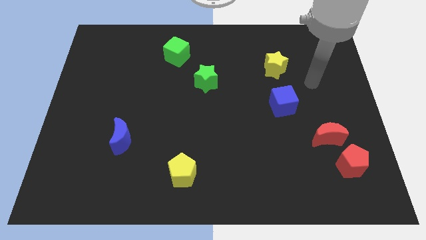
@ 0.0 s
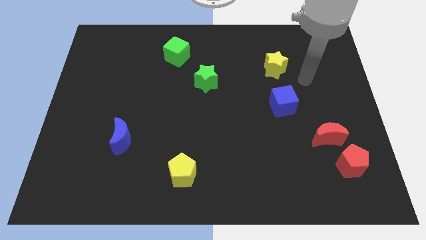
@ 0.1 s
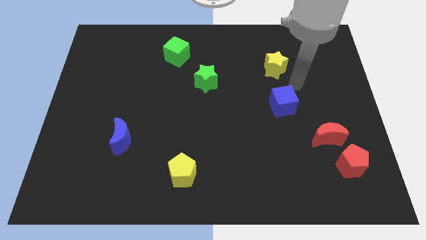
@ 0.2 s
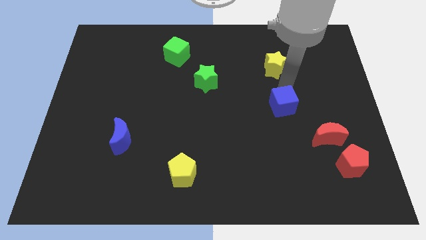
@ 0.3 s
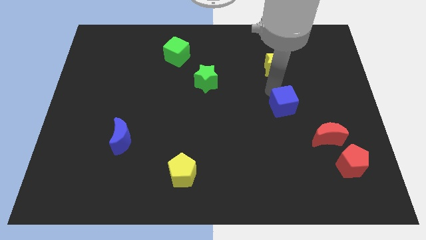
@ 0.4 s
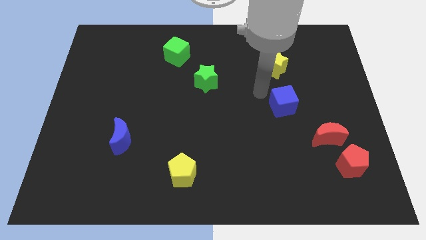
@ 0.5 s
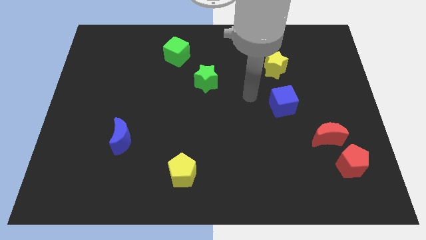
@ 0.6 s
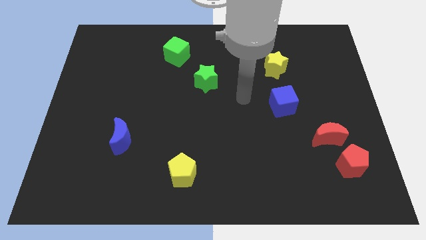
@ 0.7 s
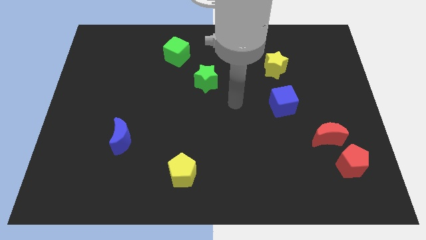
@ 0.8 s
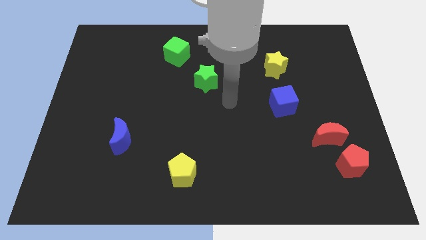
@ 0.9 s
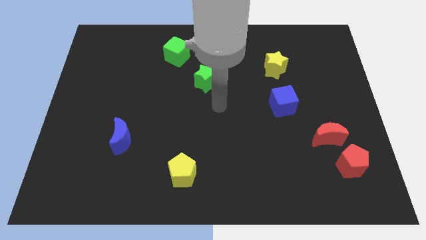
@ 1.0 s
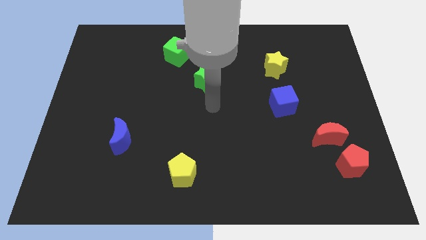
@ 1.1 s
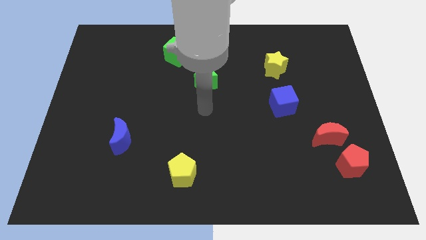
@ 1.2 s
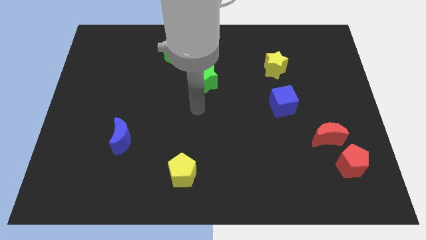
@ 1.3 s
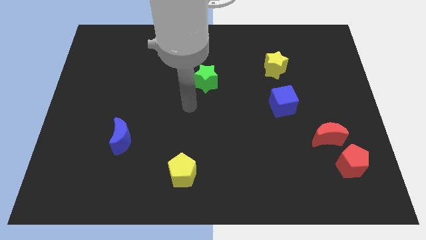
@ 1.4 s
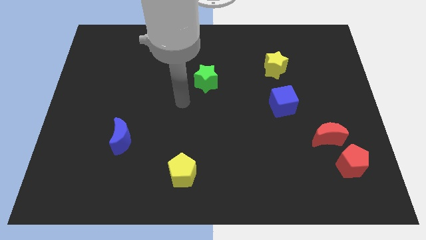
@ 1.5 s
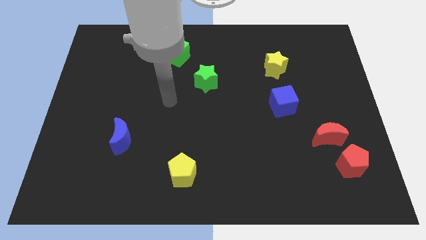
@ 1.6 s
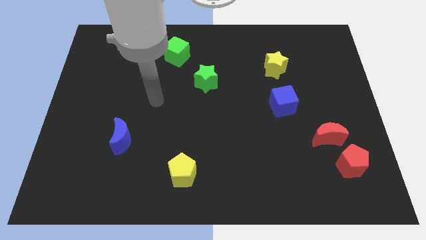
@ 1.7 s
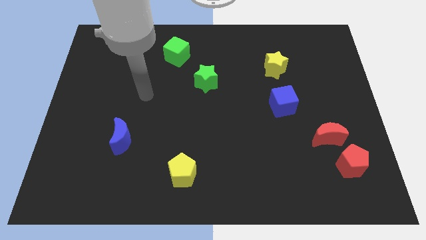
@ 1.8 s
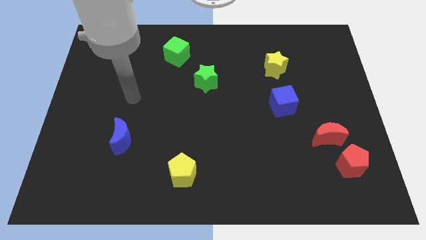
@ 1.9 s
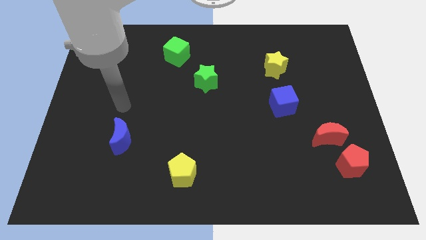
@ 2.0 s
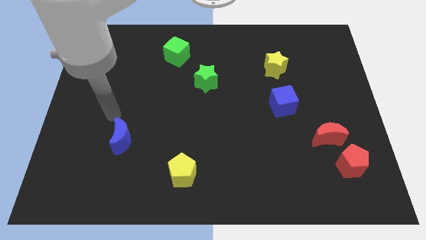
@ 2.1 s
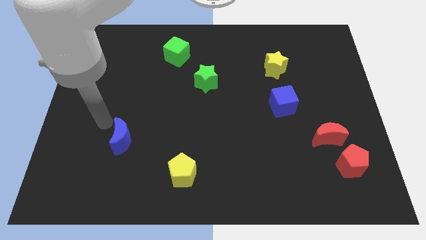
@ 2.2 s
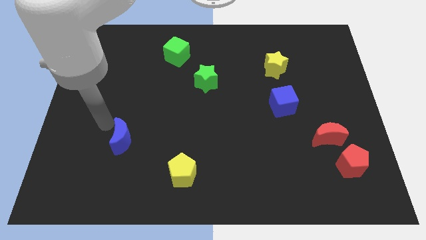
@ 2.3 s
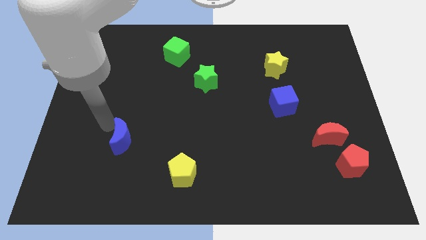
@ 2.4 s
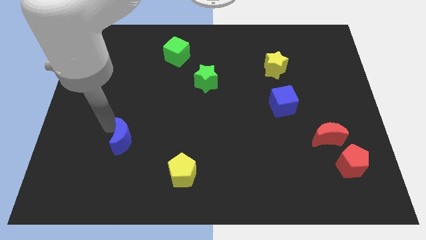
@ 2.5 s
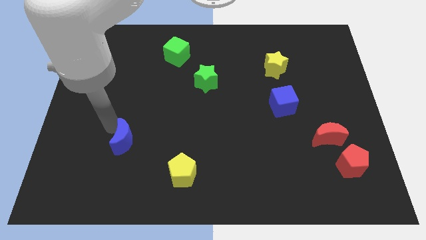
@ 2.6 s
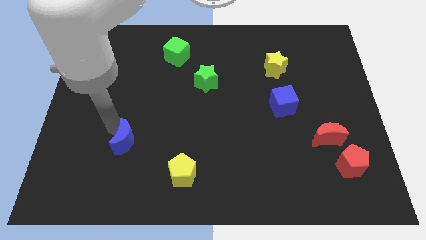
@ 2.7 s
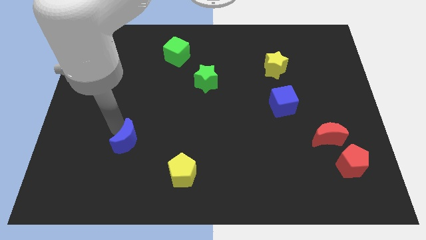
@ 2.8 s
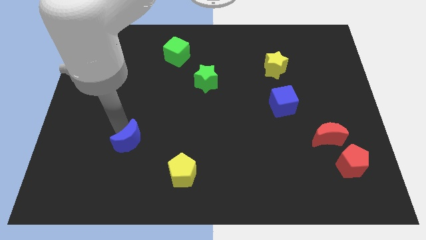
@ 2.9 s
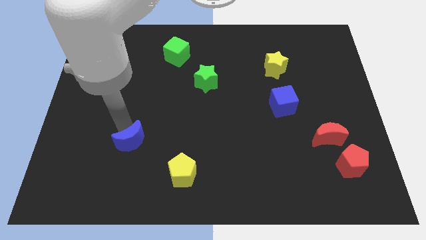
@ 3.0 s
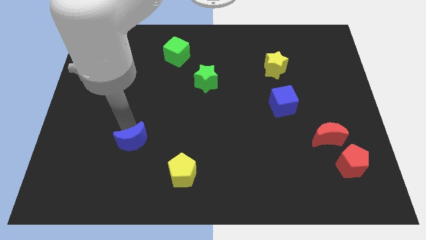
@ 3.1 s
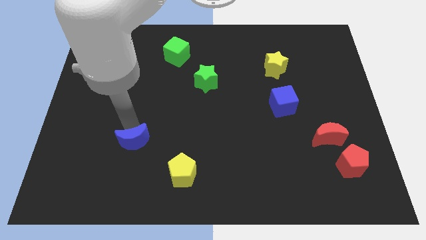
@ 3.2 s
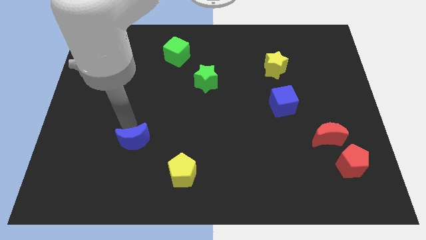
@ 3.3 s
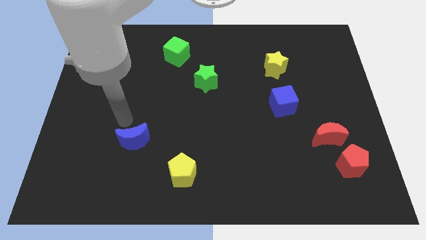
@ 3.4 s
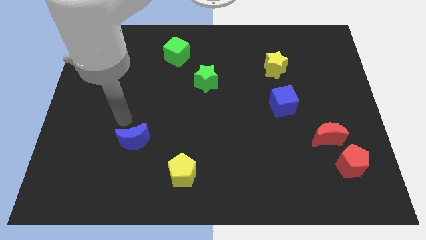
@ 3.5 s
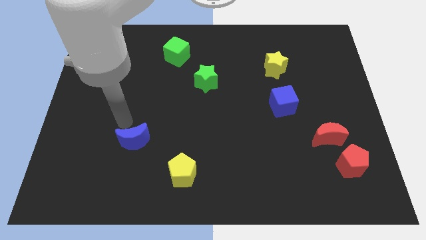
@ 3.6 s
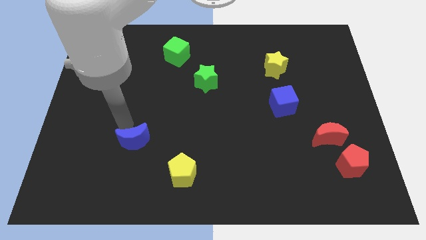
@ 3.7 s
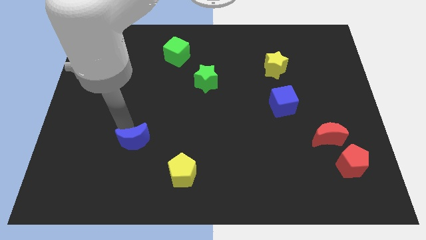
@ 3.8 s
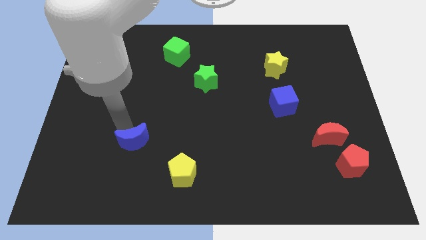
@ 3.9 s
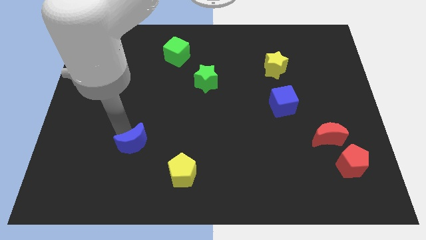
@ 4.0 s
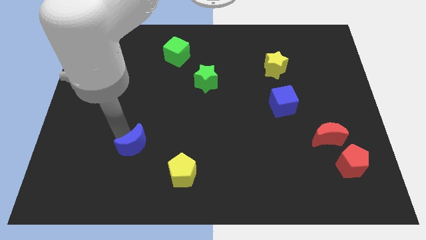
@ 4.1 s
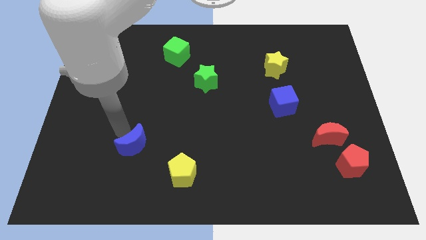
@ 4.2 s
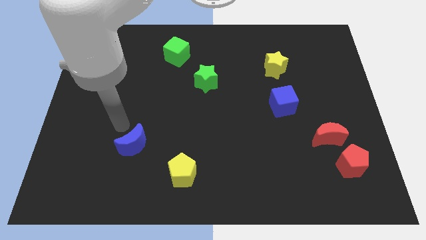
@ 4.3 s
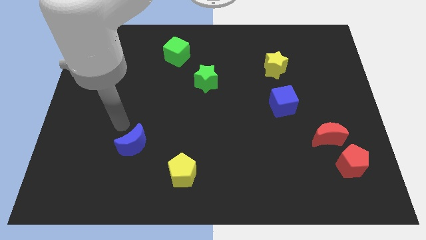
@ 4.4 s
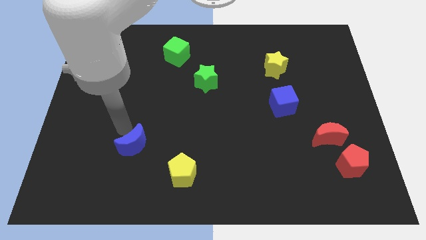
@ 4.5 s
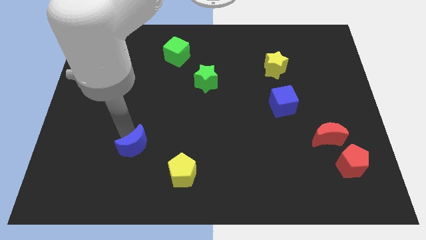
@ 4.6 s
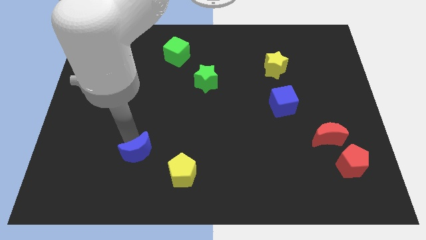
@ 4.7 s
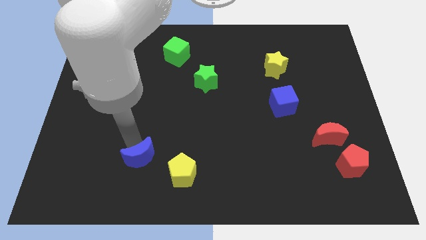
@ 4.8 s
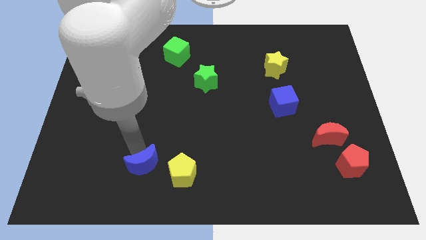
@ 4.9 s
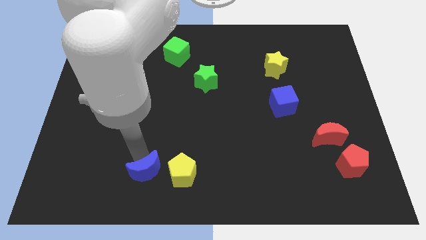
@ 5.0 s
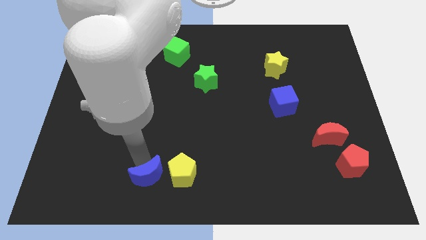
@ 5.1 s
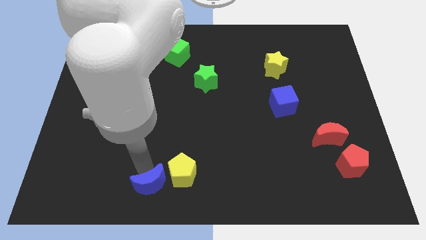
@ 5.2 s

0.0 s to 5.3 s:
put the blue moon to the bottom

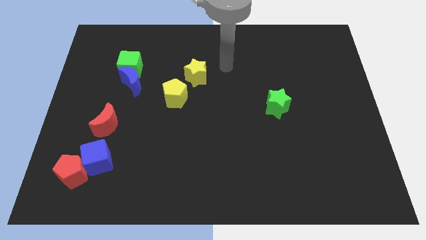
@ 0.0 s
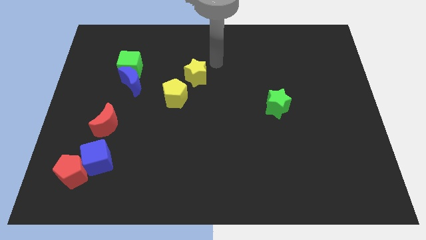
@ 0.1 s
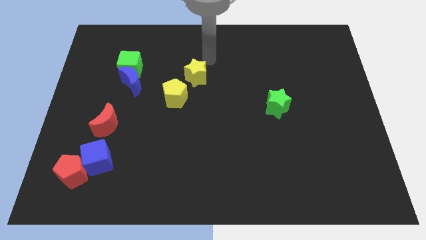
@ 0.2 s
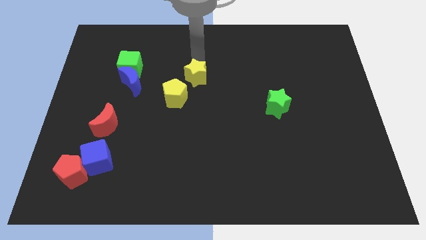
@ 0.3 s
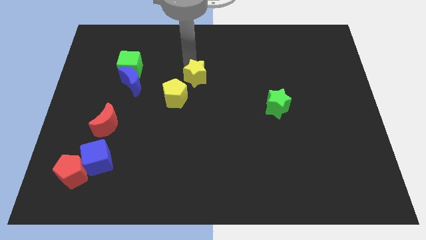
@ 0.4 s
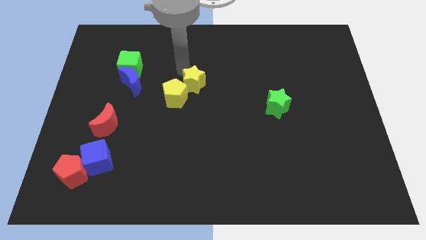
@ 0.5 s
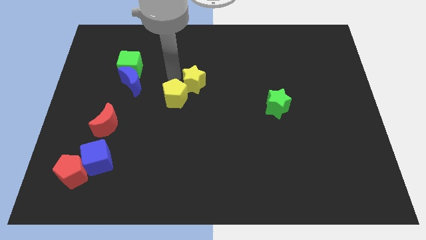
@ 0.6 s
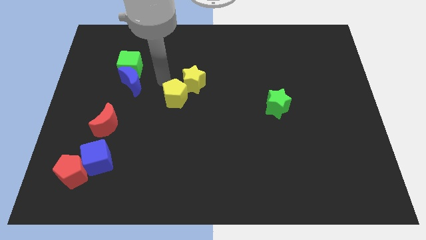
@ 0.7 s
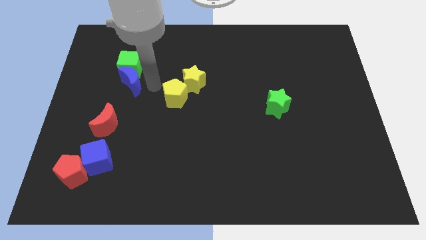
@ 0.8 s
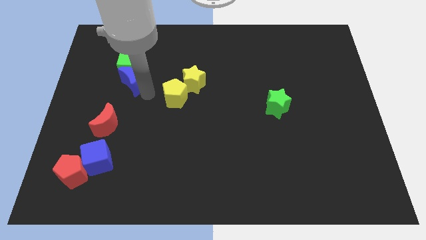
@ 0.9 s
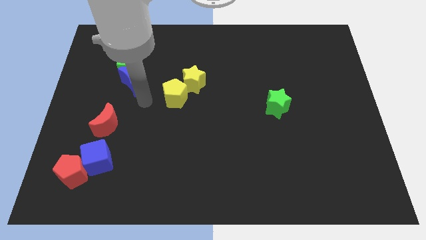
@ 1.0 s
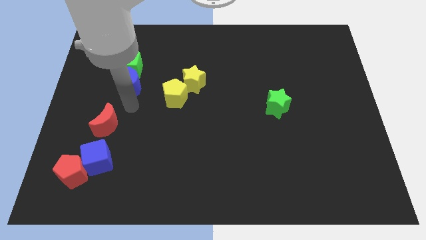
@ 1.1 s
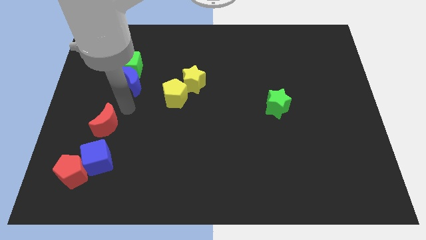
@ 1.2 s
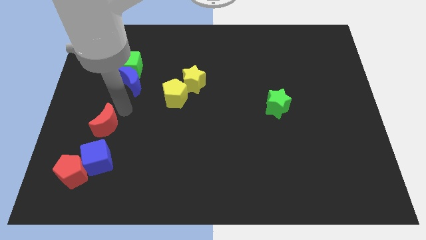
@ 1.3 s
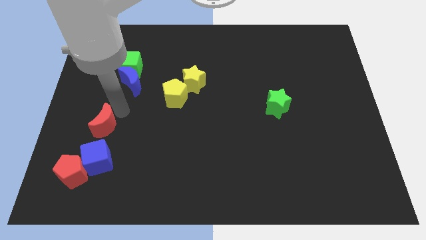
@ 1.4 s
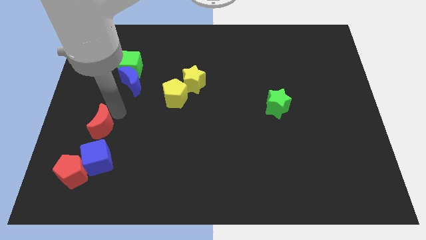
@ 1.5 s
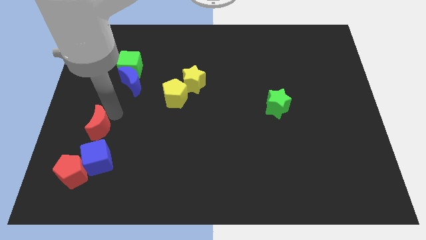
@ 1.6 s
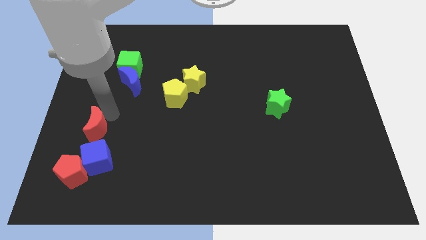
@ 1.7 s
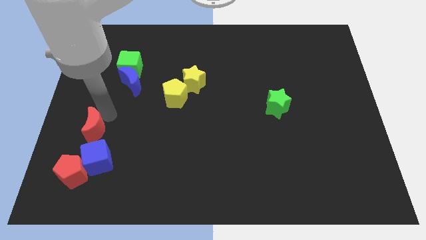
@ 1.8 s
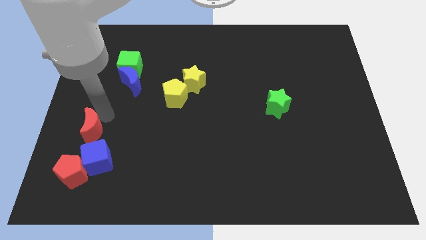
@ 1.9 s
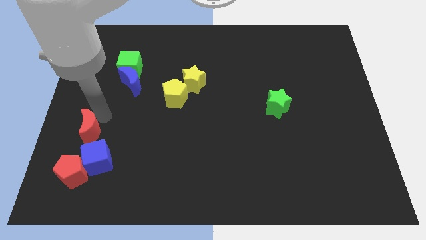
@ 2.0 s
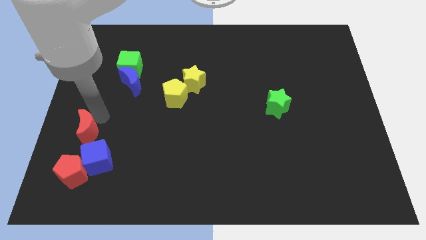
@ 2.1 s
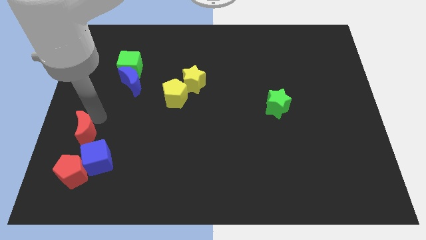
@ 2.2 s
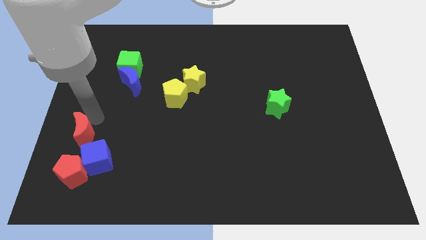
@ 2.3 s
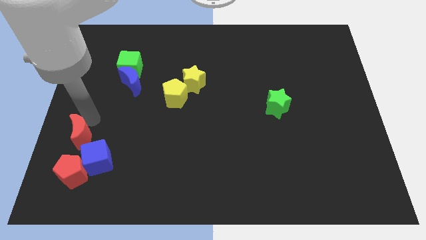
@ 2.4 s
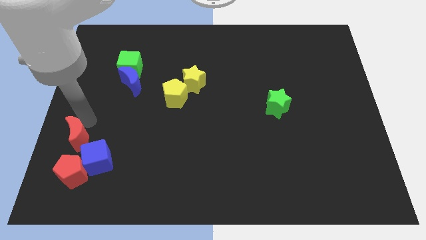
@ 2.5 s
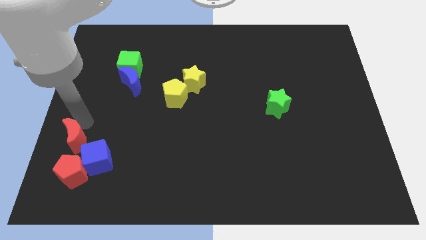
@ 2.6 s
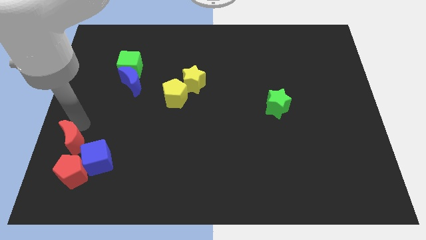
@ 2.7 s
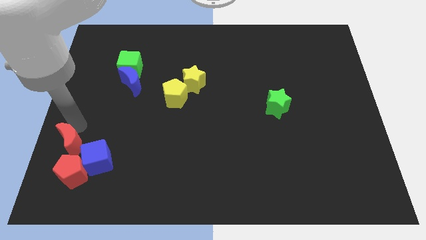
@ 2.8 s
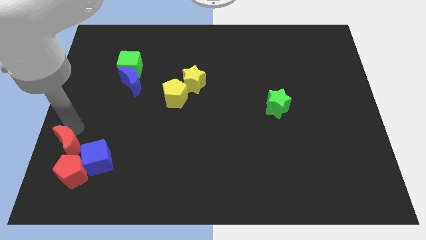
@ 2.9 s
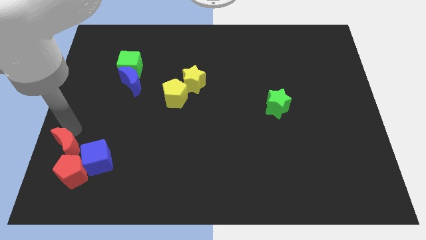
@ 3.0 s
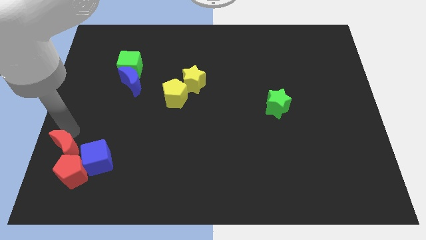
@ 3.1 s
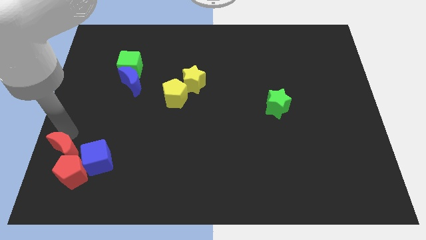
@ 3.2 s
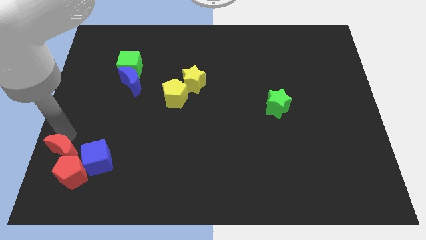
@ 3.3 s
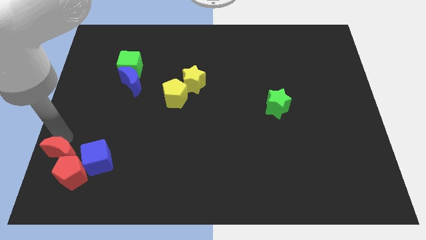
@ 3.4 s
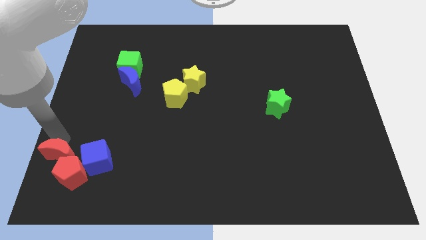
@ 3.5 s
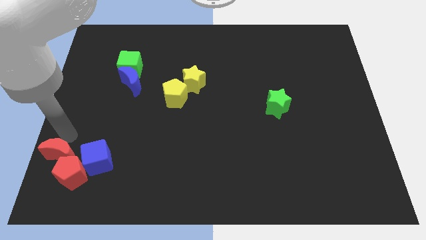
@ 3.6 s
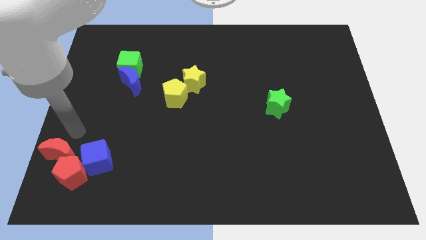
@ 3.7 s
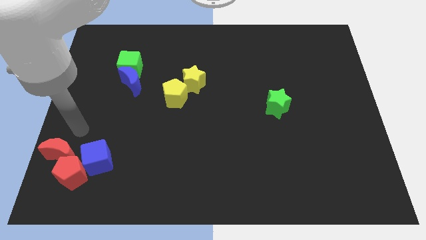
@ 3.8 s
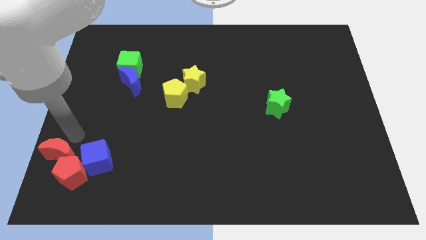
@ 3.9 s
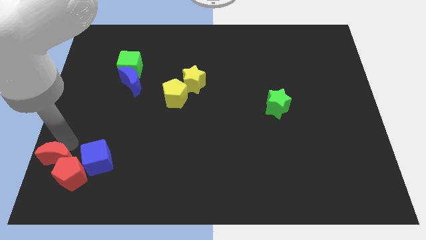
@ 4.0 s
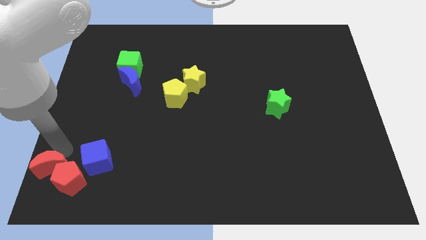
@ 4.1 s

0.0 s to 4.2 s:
put the red moon to the lower left corner
